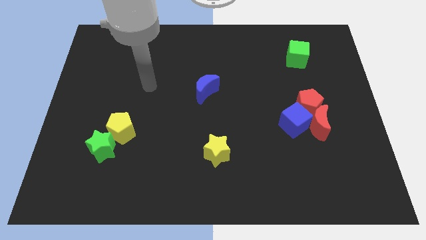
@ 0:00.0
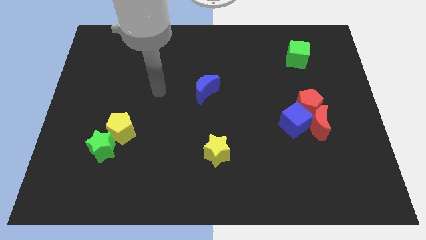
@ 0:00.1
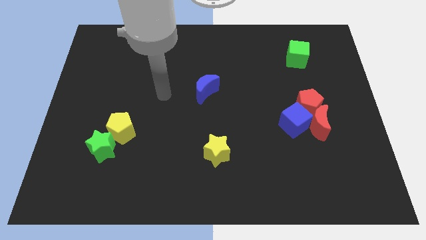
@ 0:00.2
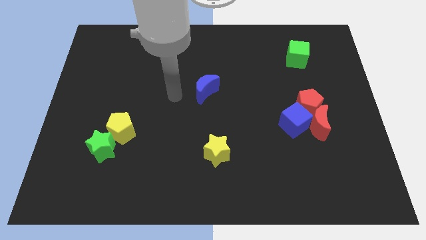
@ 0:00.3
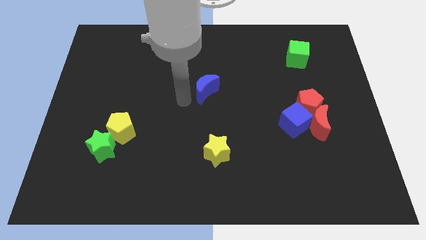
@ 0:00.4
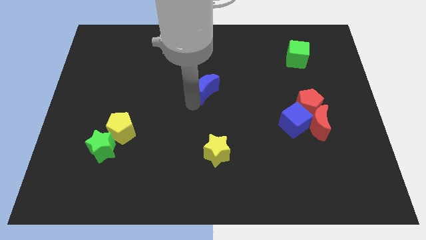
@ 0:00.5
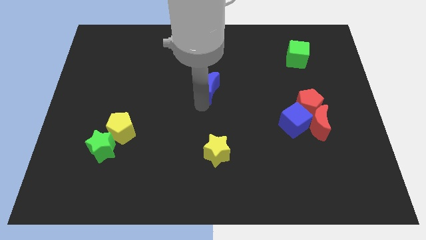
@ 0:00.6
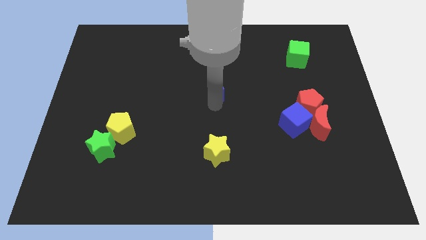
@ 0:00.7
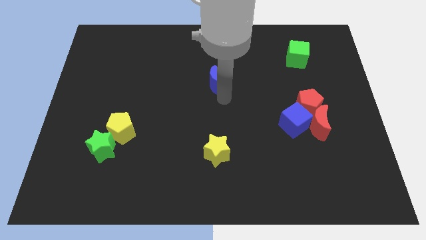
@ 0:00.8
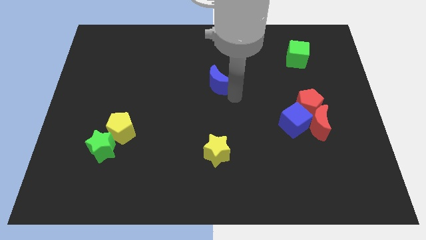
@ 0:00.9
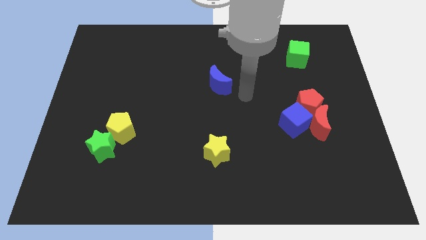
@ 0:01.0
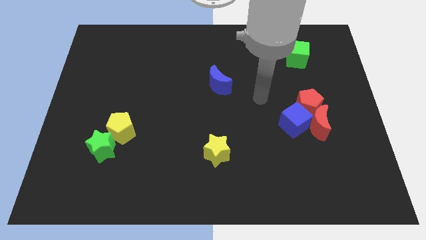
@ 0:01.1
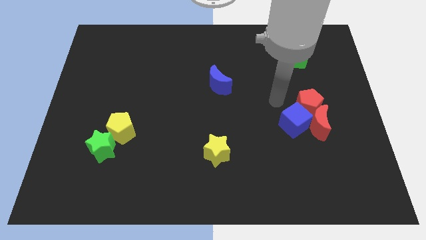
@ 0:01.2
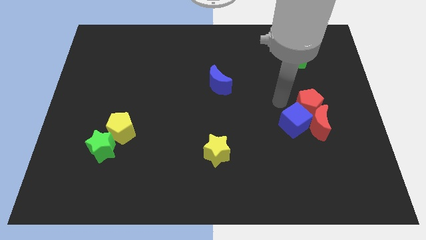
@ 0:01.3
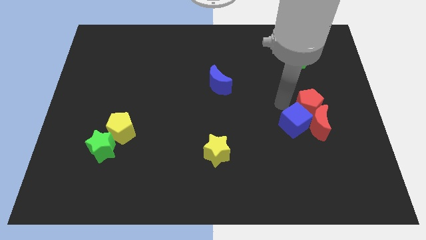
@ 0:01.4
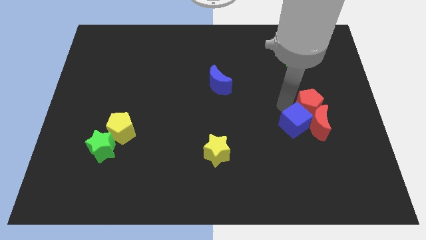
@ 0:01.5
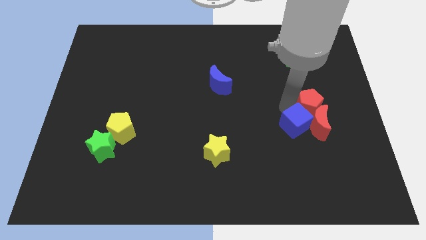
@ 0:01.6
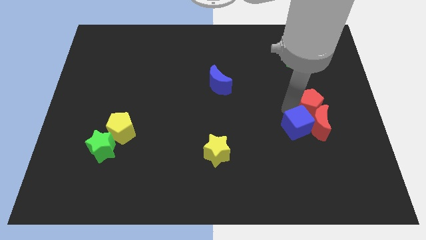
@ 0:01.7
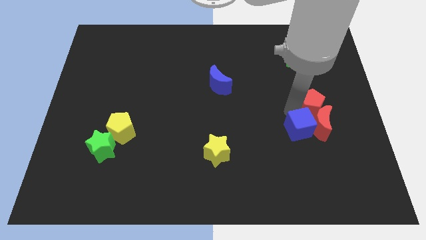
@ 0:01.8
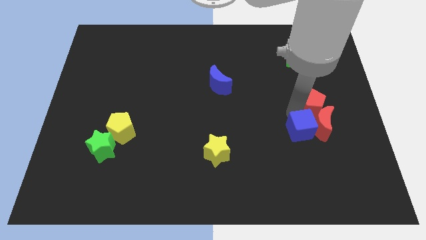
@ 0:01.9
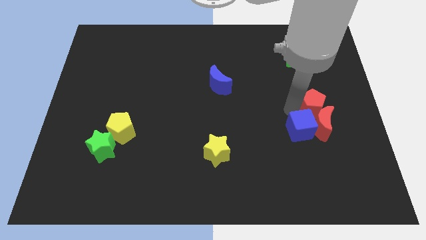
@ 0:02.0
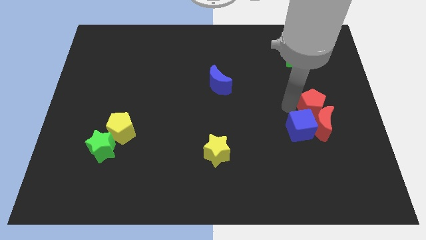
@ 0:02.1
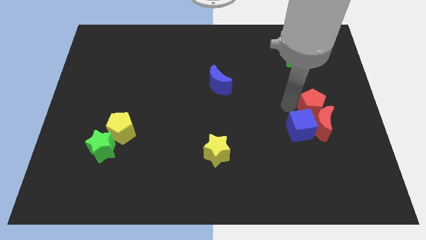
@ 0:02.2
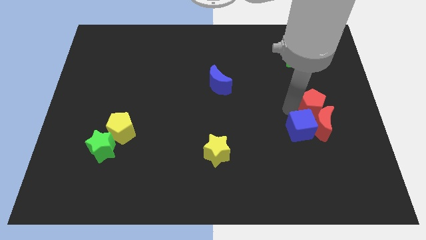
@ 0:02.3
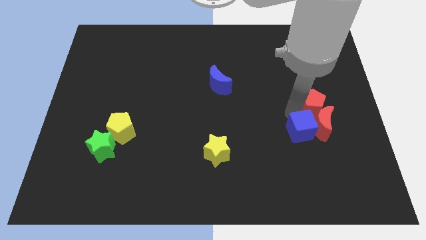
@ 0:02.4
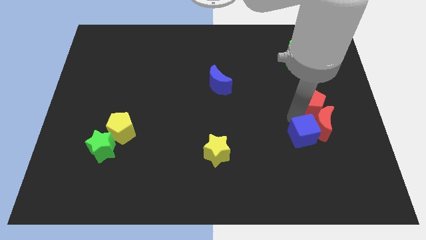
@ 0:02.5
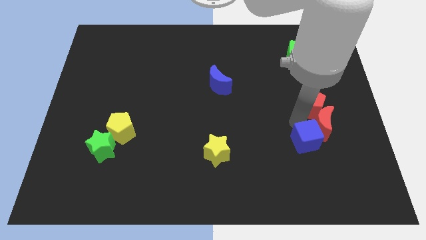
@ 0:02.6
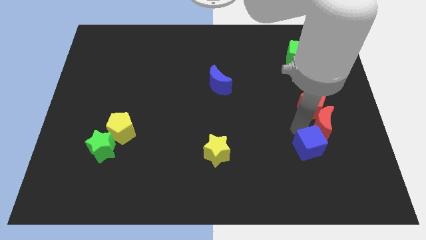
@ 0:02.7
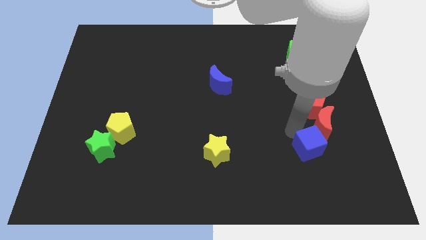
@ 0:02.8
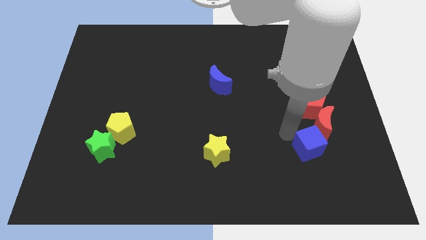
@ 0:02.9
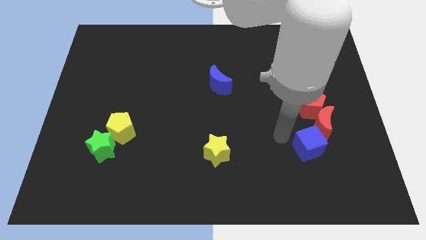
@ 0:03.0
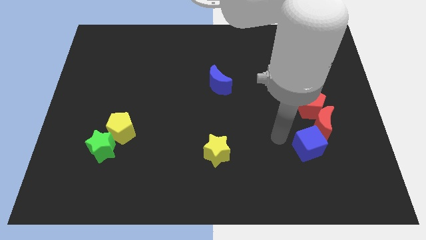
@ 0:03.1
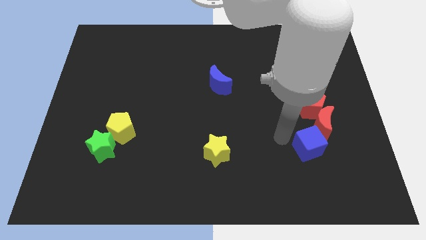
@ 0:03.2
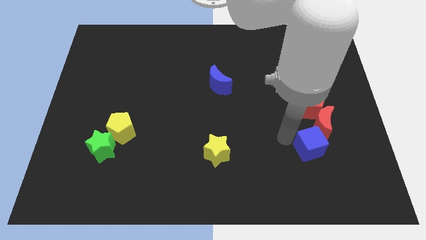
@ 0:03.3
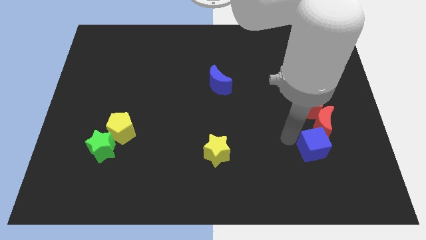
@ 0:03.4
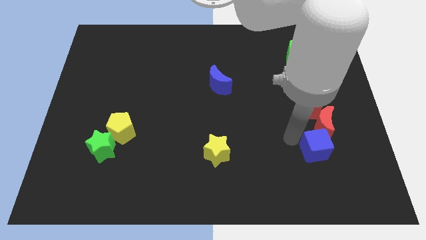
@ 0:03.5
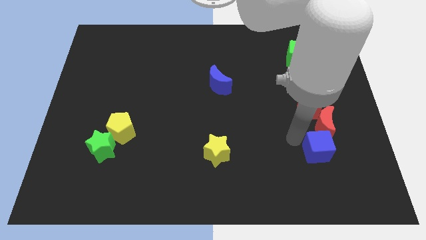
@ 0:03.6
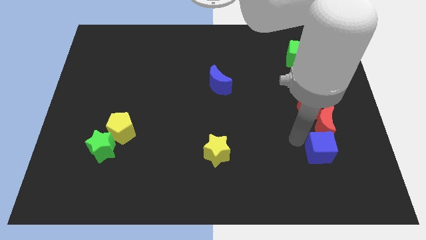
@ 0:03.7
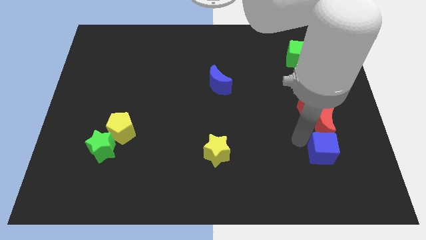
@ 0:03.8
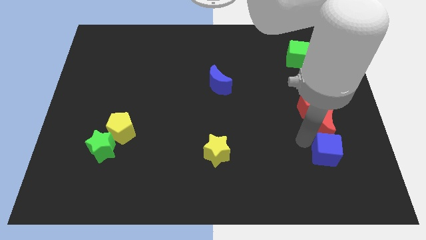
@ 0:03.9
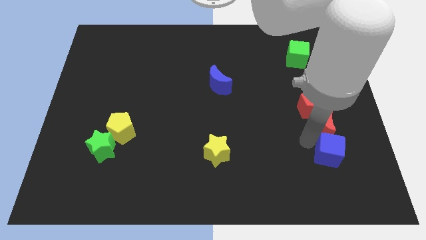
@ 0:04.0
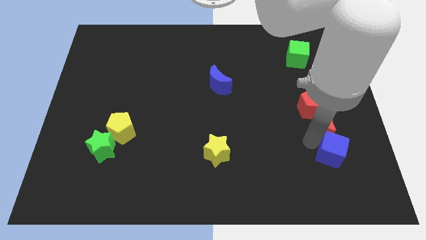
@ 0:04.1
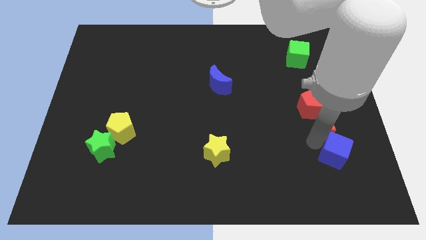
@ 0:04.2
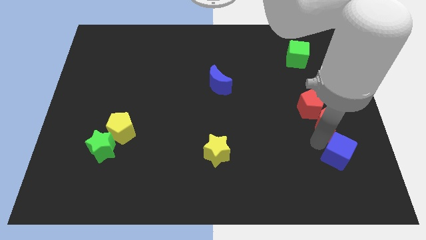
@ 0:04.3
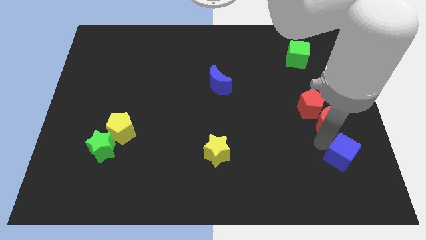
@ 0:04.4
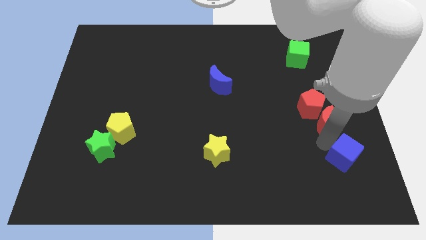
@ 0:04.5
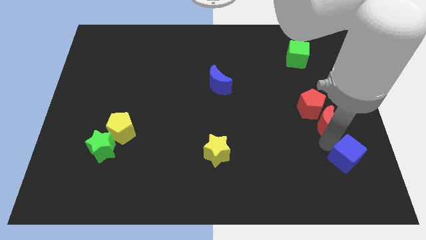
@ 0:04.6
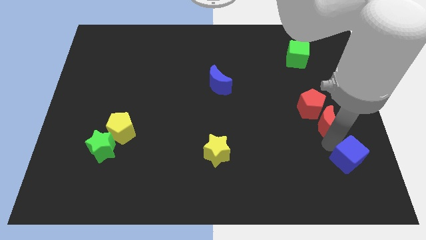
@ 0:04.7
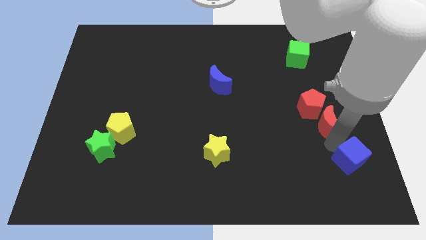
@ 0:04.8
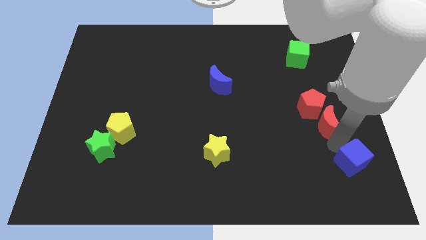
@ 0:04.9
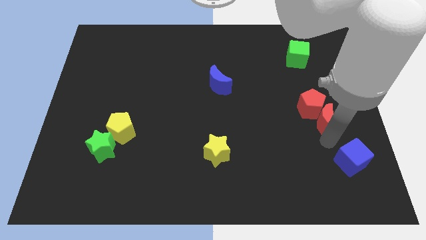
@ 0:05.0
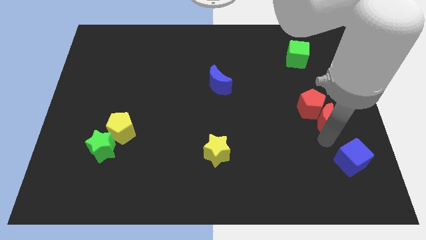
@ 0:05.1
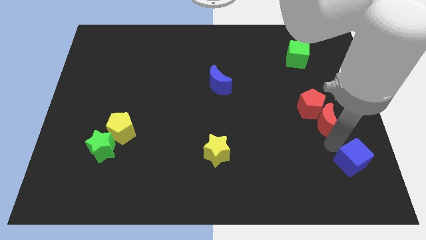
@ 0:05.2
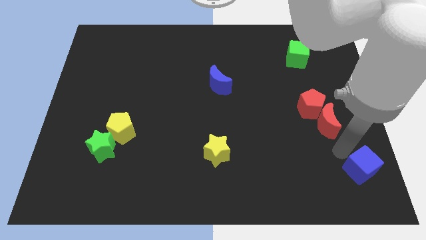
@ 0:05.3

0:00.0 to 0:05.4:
slide the blue cube to the bottom right
